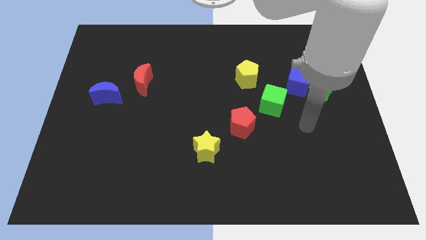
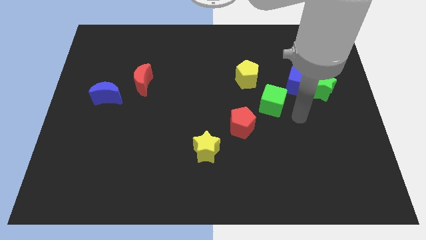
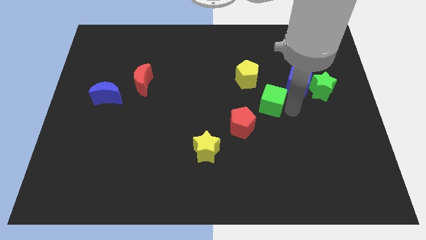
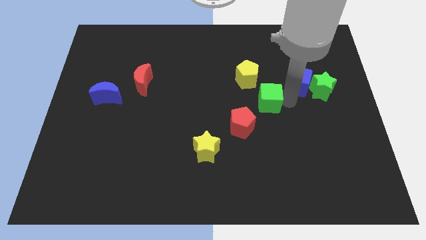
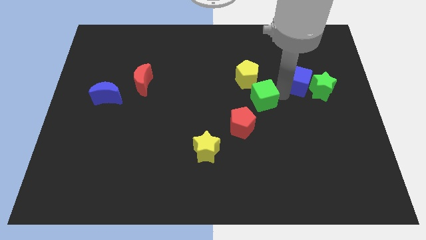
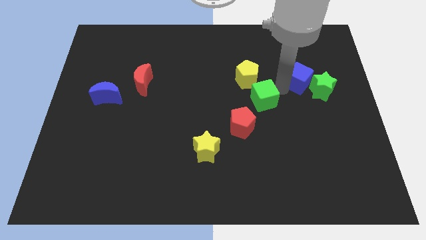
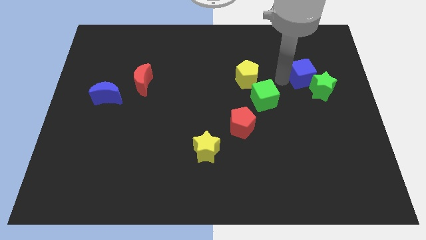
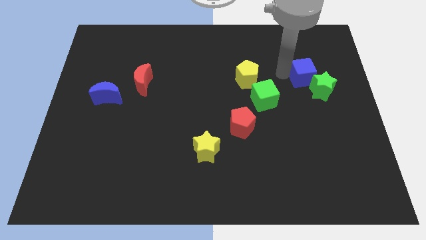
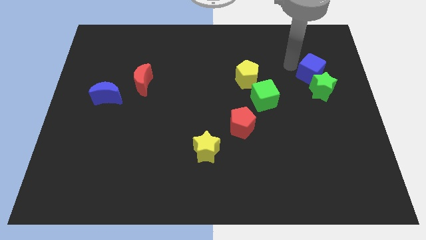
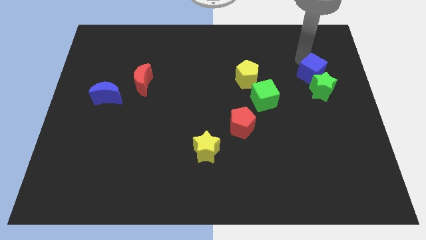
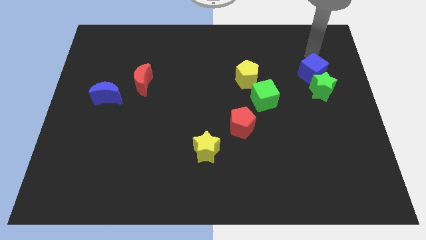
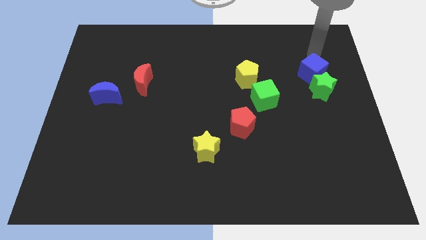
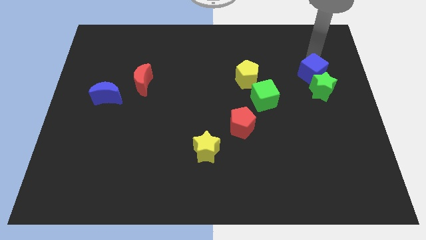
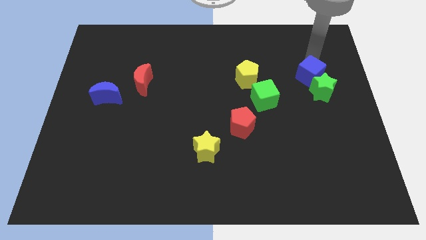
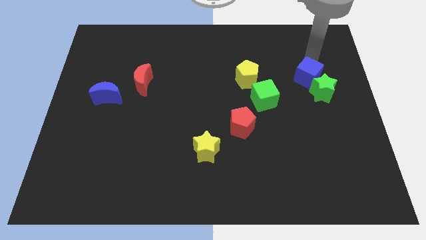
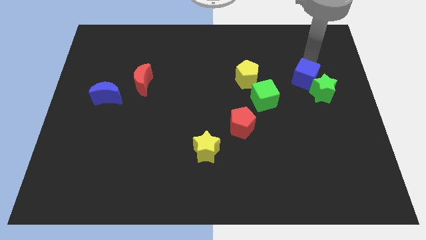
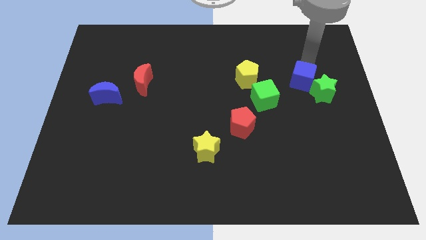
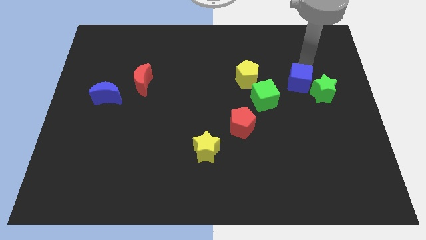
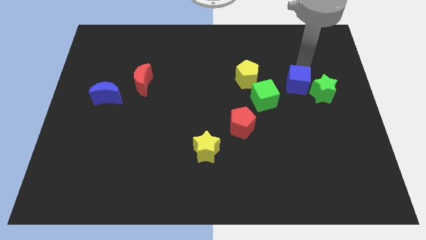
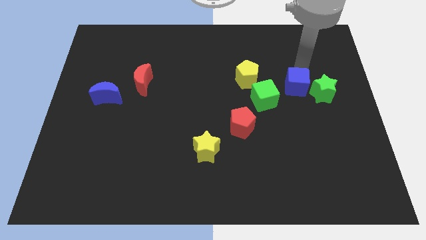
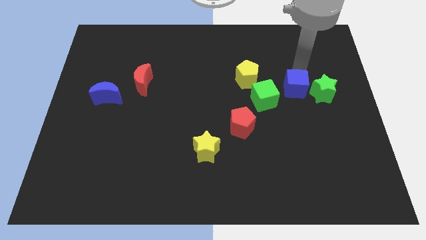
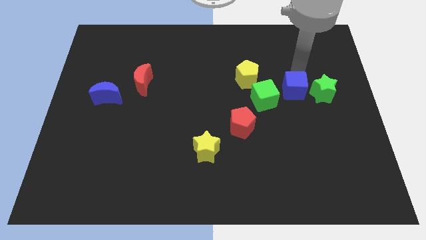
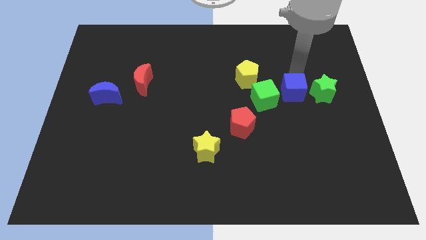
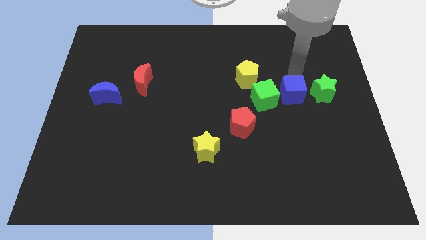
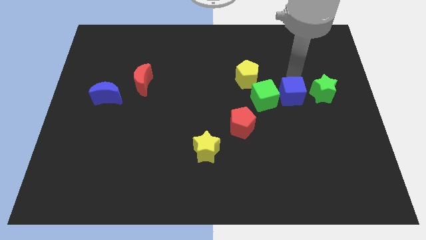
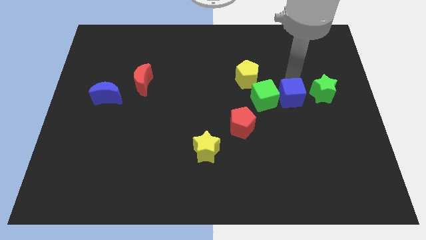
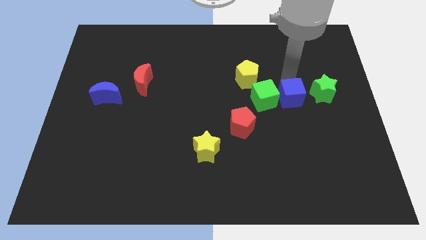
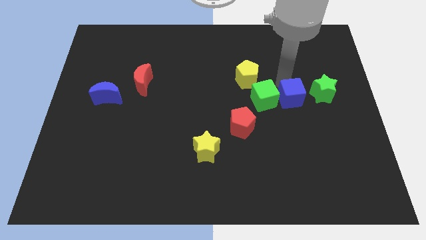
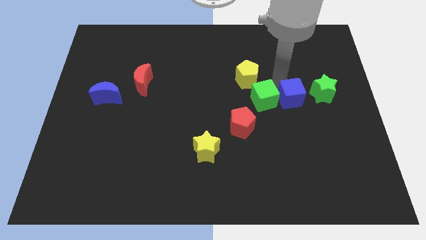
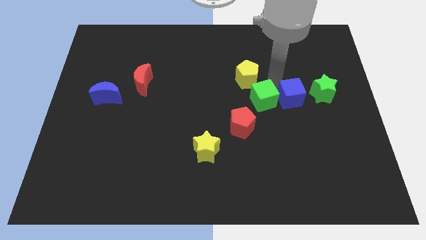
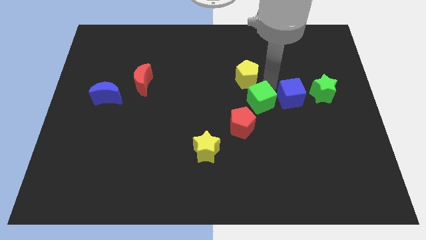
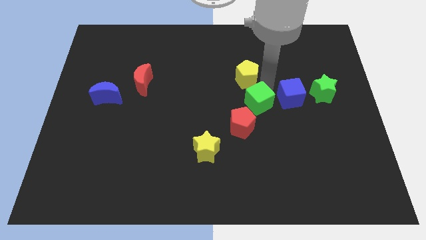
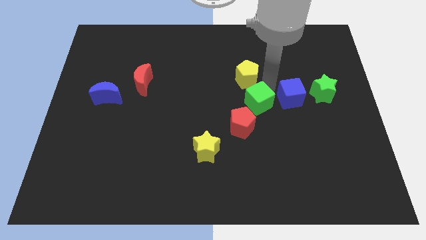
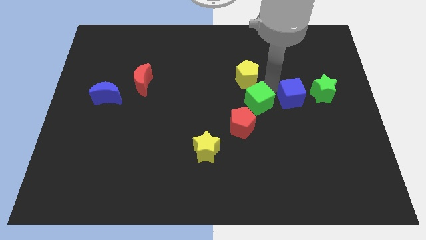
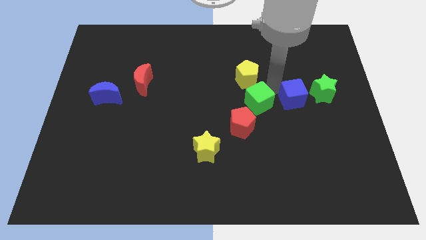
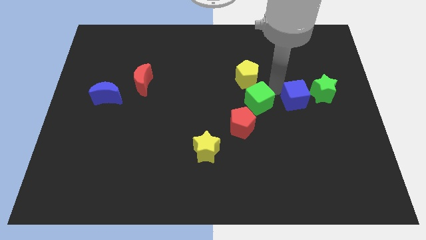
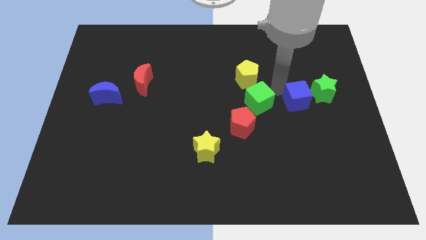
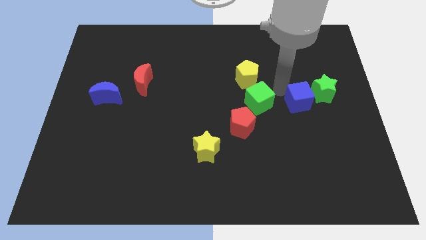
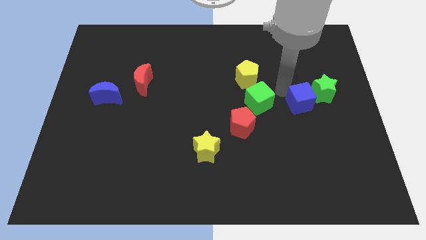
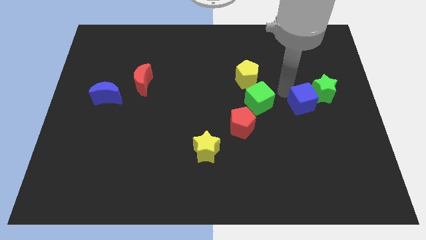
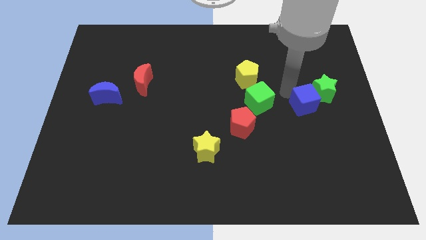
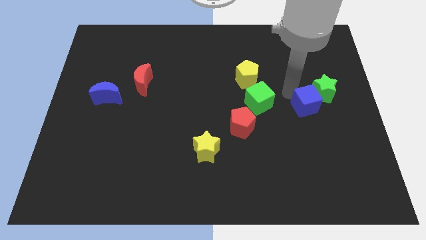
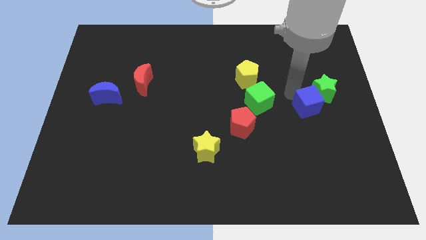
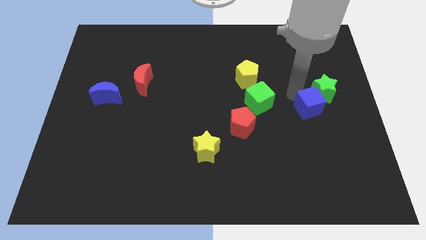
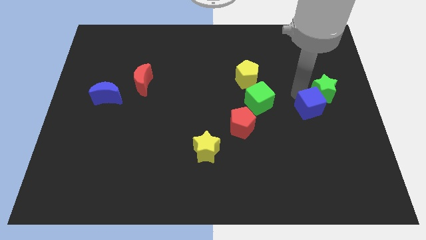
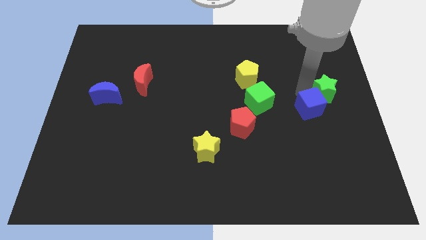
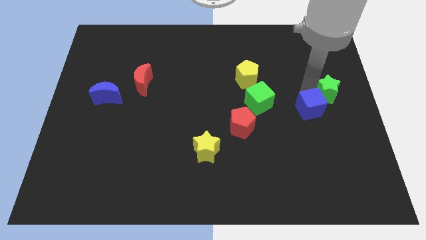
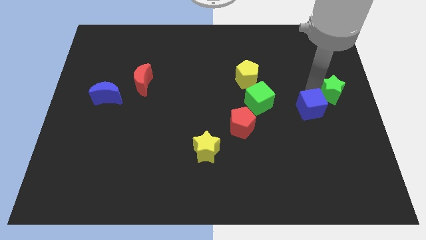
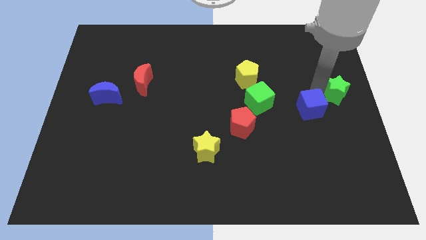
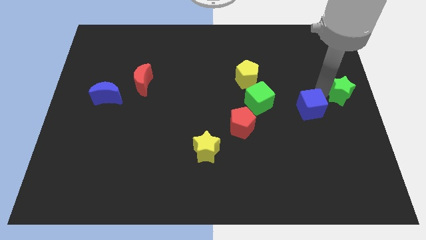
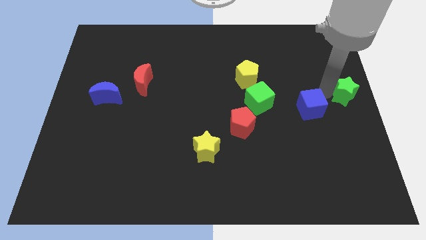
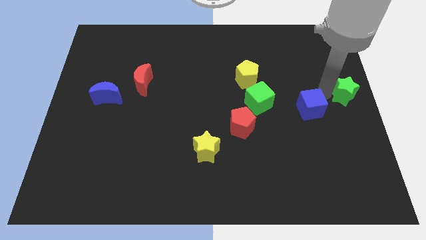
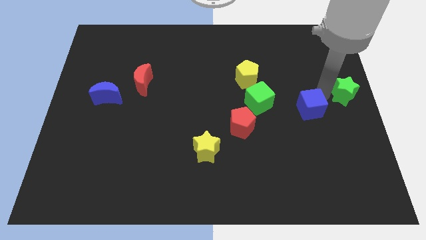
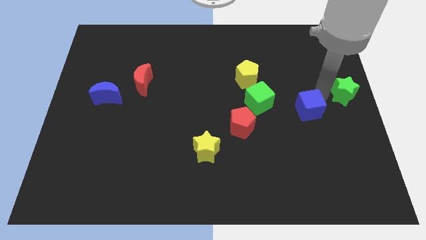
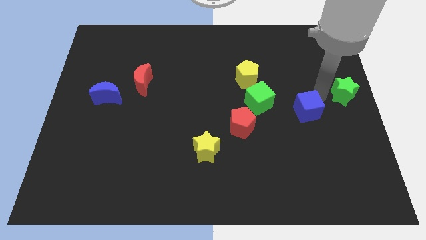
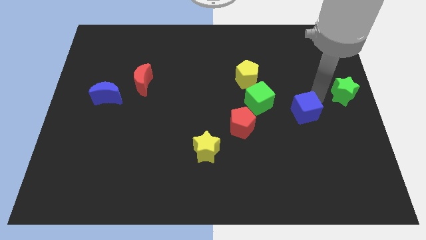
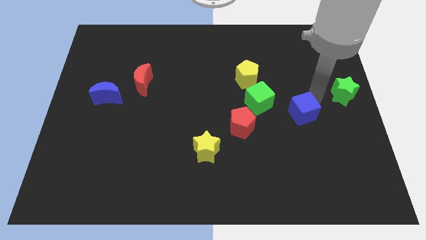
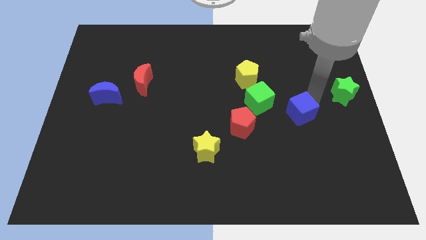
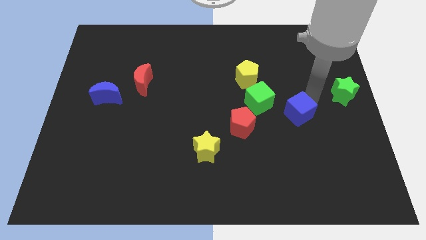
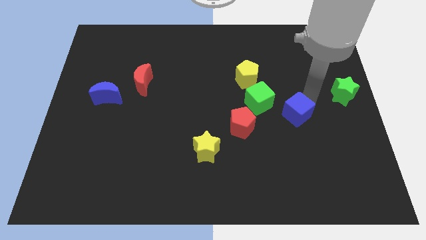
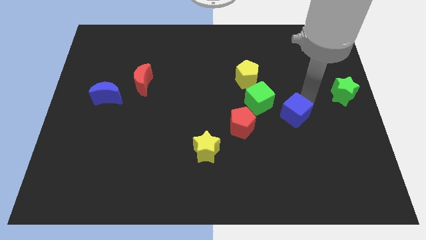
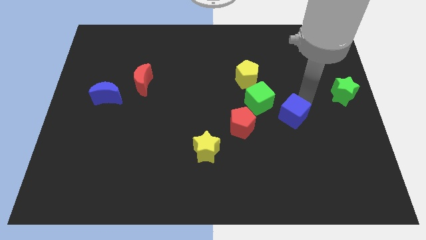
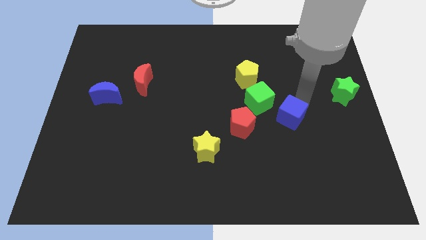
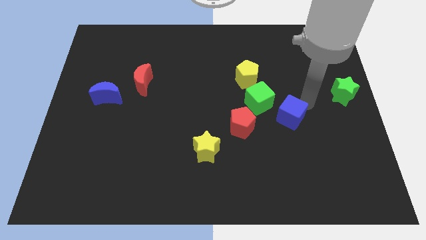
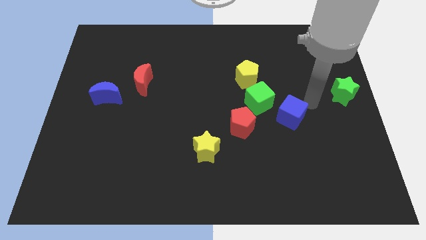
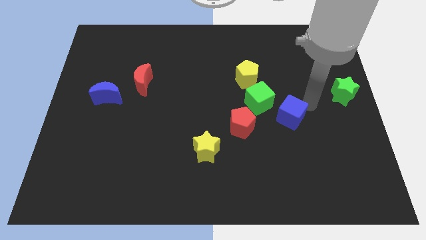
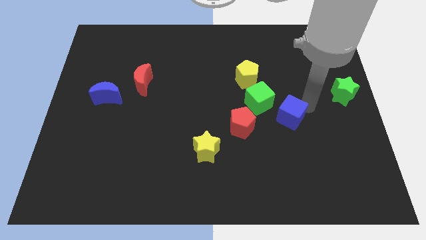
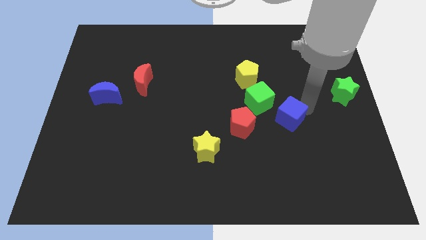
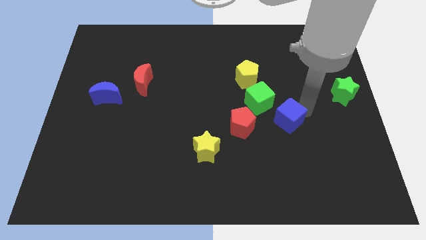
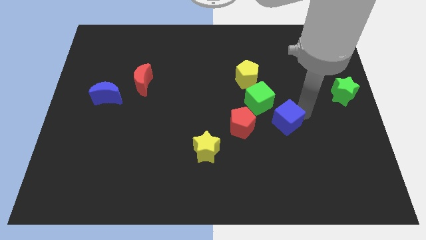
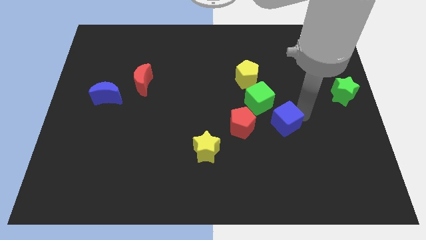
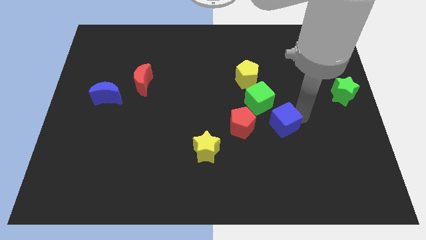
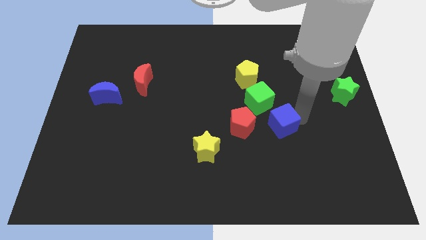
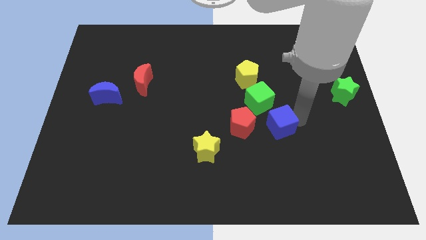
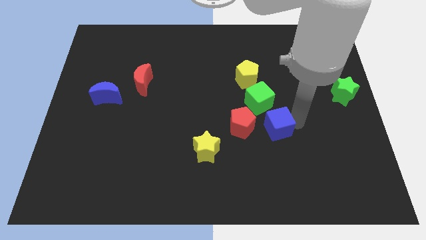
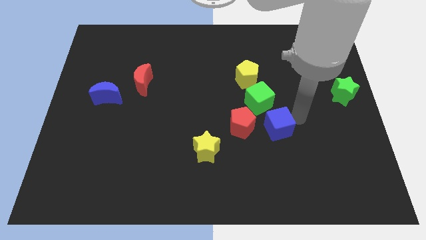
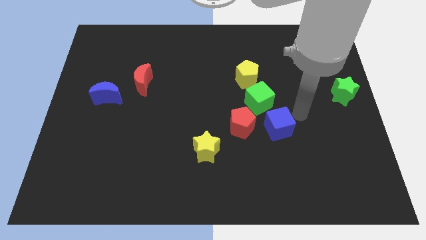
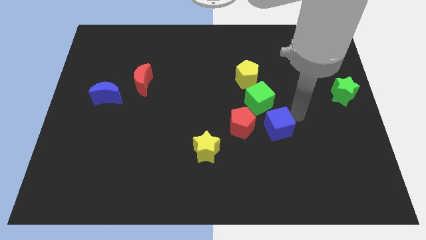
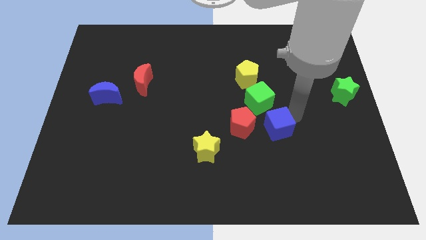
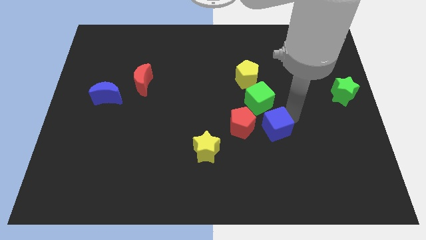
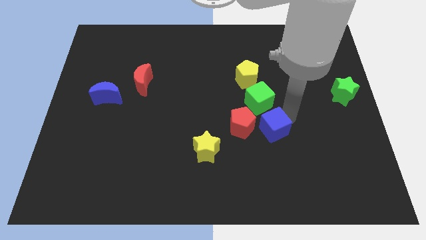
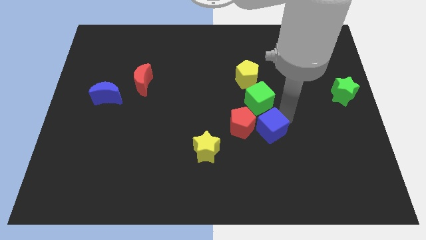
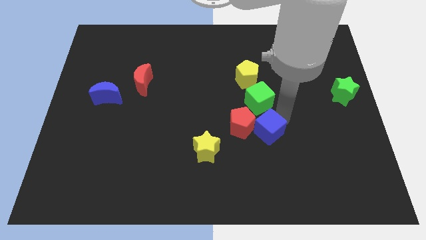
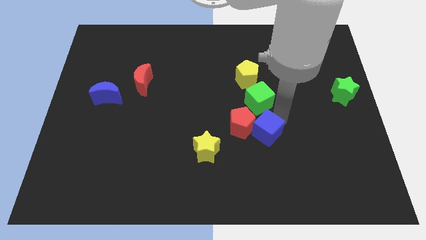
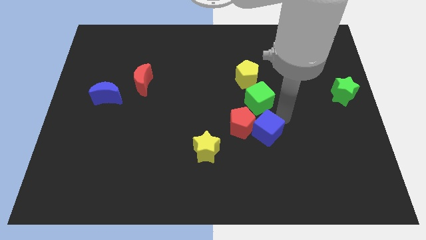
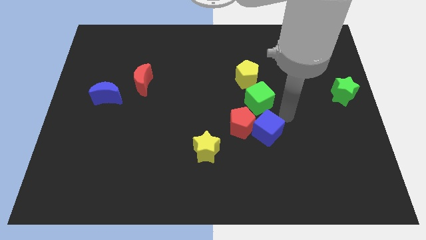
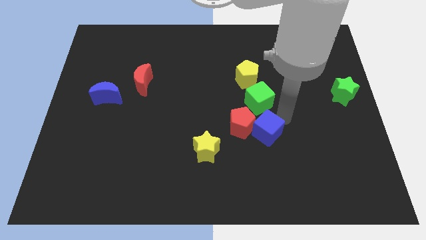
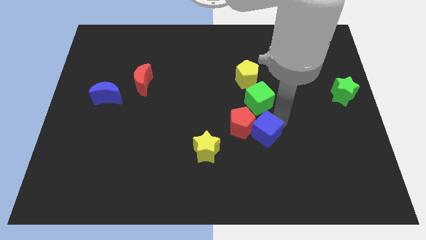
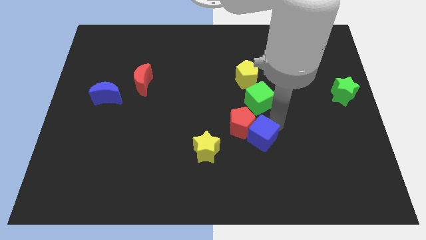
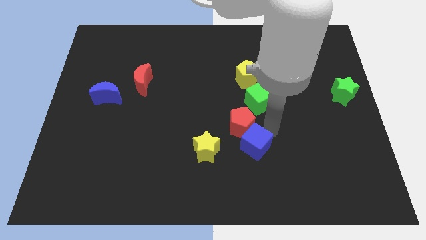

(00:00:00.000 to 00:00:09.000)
push the blue cube downwards and then left
